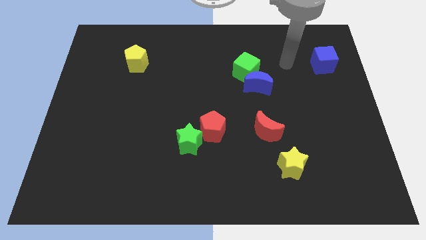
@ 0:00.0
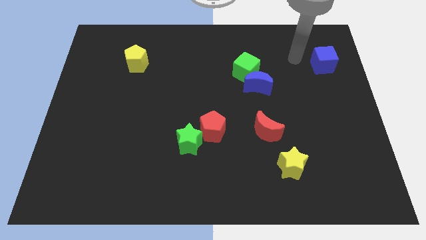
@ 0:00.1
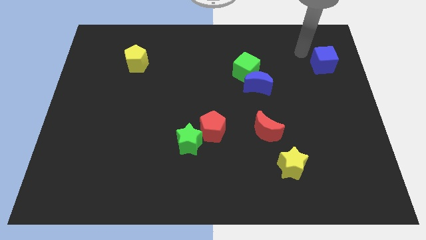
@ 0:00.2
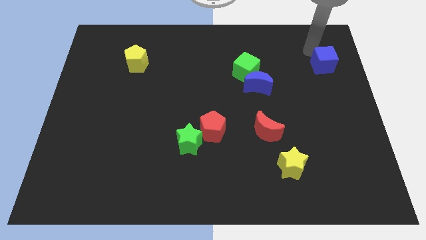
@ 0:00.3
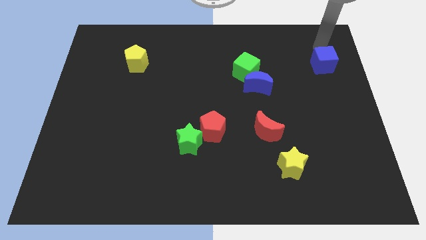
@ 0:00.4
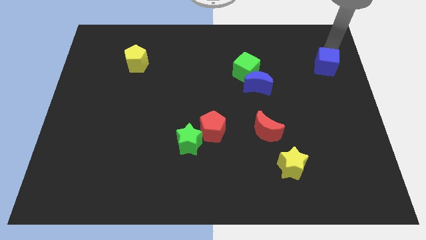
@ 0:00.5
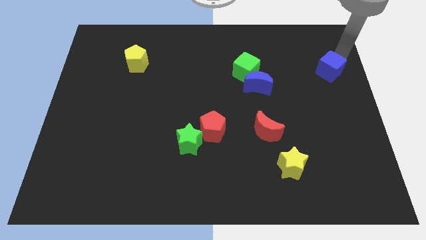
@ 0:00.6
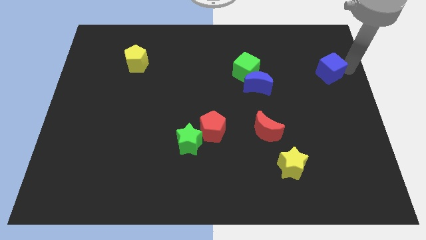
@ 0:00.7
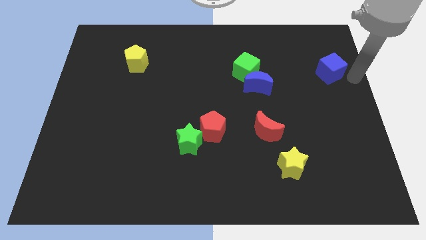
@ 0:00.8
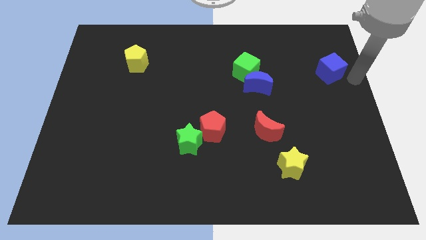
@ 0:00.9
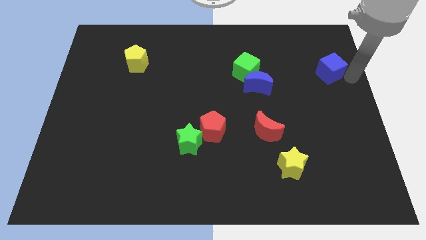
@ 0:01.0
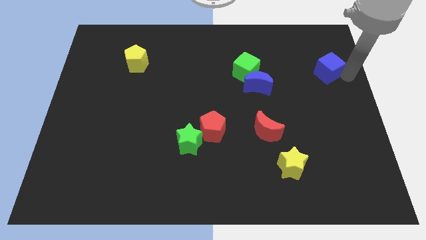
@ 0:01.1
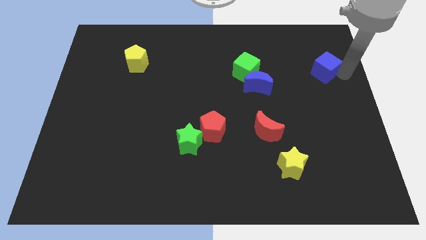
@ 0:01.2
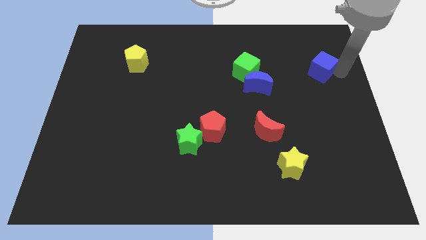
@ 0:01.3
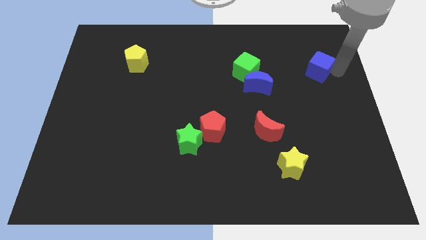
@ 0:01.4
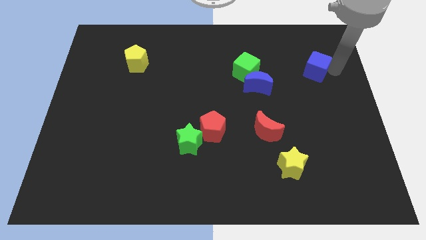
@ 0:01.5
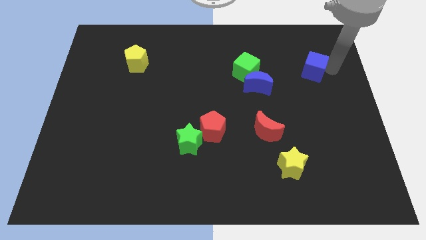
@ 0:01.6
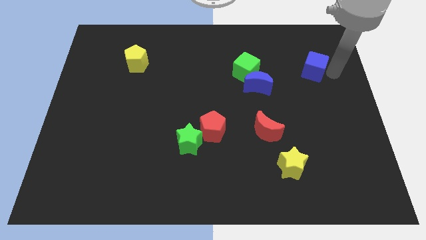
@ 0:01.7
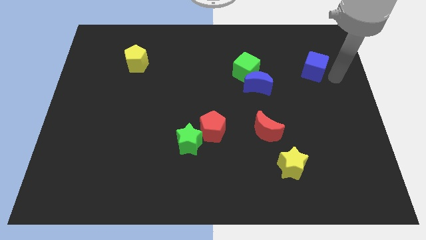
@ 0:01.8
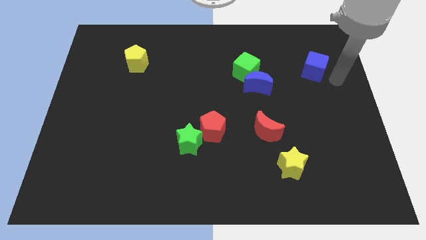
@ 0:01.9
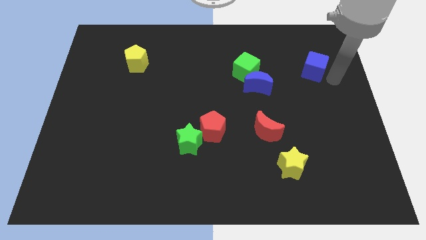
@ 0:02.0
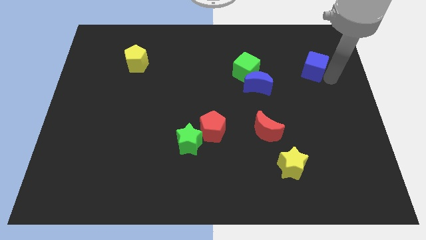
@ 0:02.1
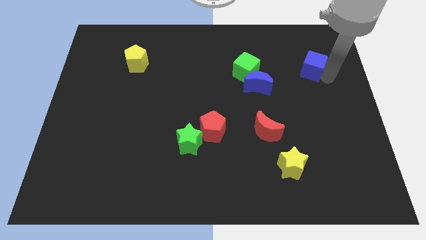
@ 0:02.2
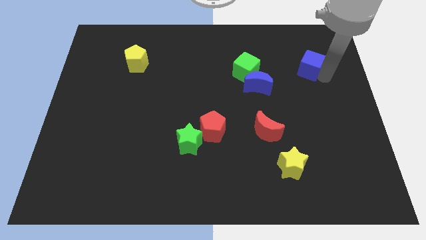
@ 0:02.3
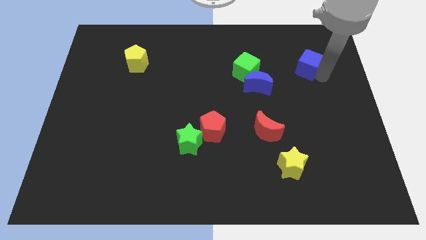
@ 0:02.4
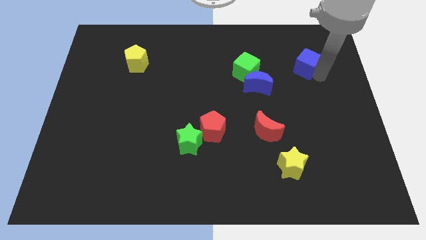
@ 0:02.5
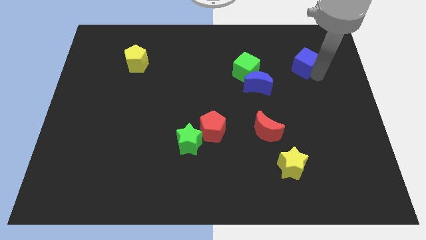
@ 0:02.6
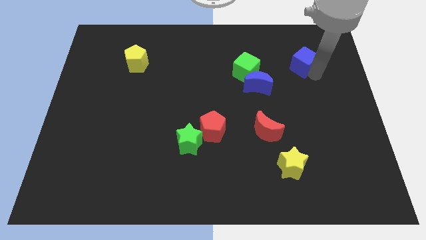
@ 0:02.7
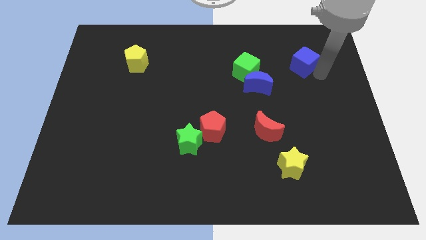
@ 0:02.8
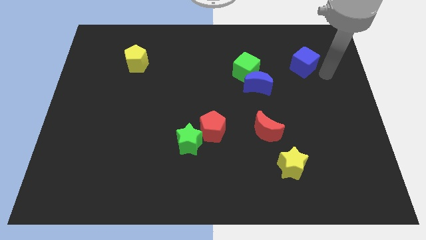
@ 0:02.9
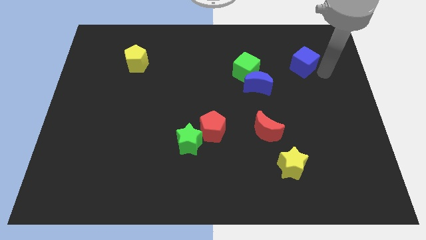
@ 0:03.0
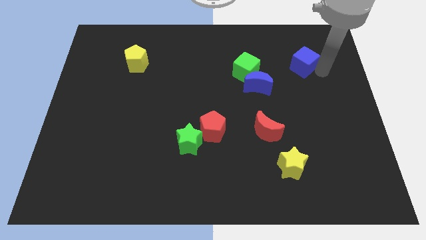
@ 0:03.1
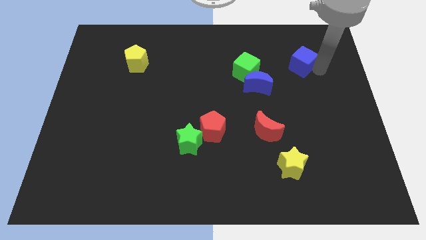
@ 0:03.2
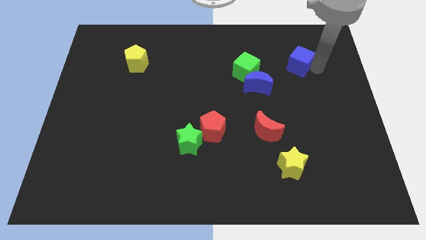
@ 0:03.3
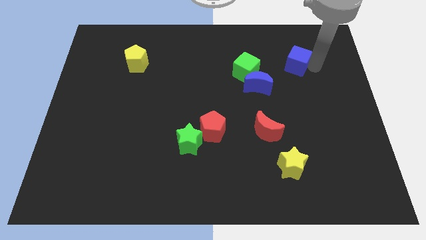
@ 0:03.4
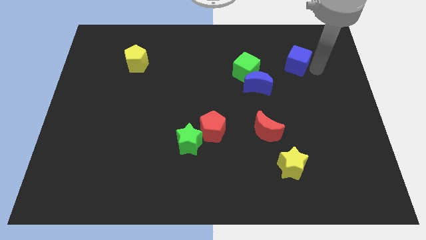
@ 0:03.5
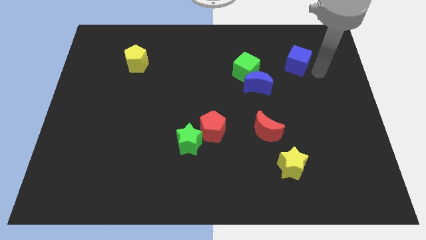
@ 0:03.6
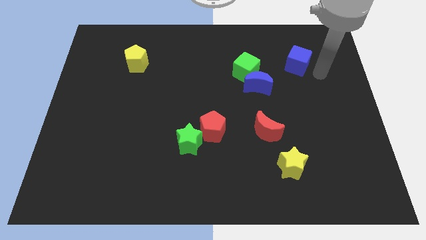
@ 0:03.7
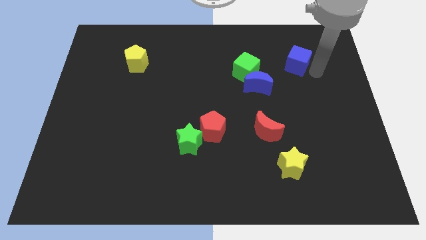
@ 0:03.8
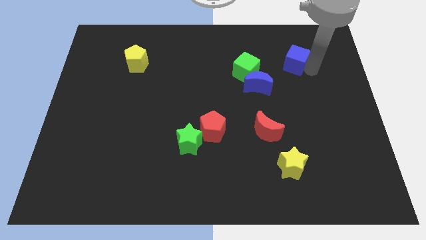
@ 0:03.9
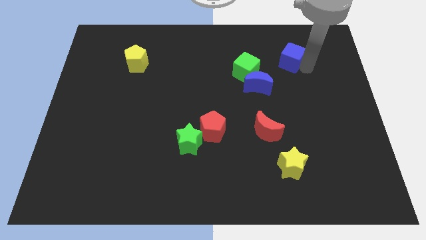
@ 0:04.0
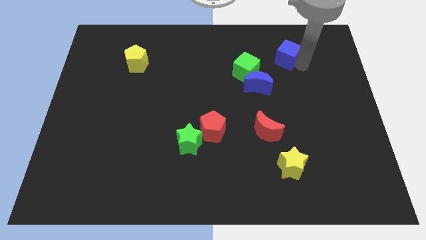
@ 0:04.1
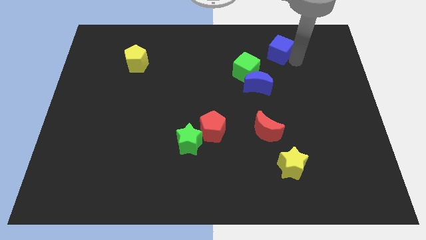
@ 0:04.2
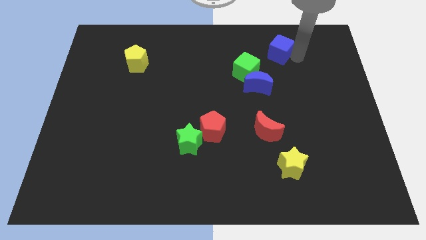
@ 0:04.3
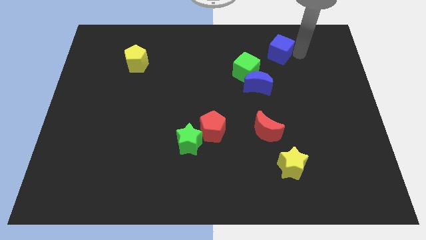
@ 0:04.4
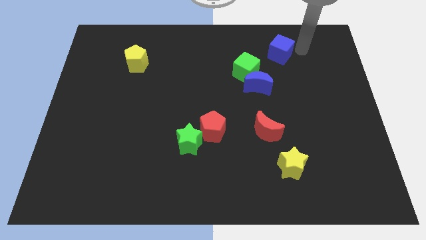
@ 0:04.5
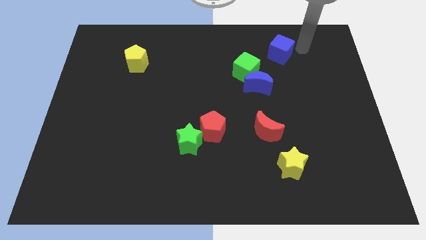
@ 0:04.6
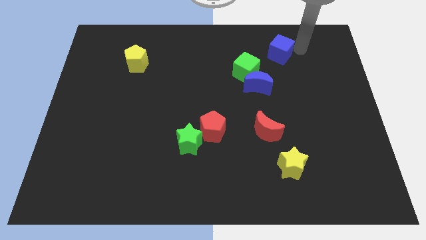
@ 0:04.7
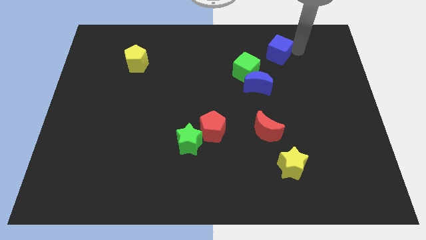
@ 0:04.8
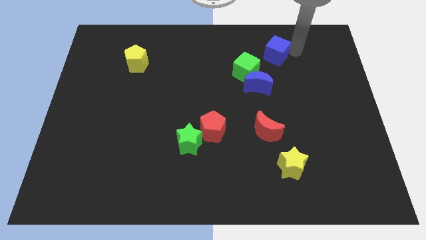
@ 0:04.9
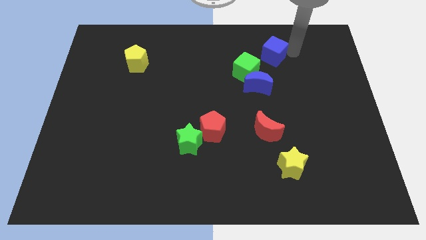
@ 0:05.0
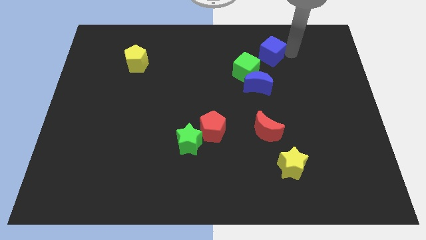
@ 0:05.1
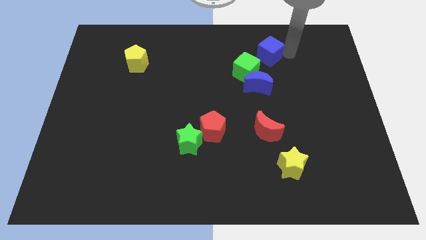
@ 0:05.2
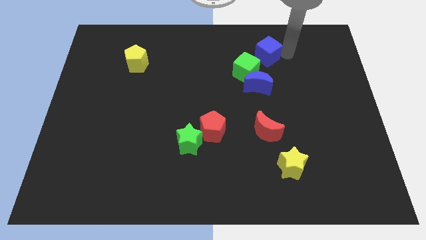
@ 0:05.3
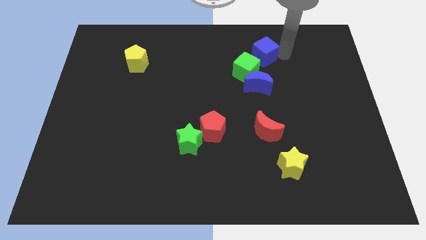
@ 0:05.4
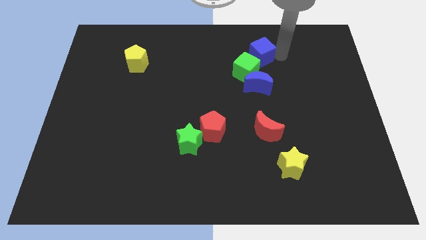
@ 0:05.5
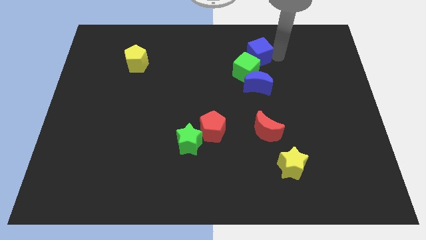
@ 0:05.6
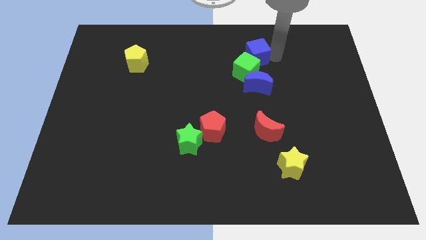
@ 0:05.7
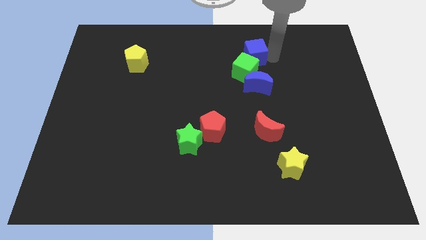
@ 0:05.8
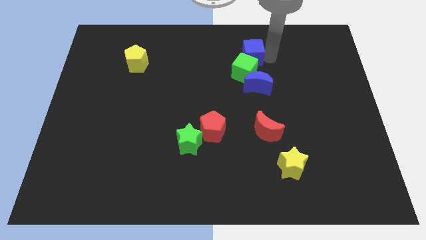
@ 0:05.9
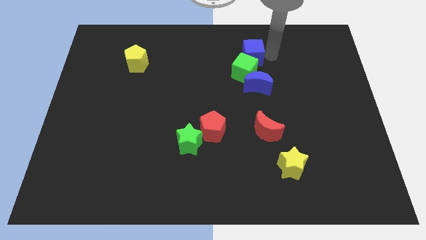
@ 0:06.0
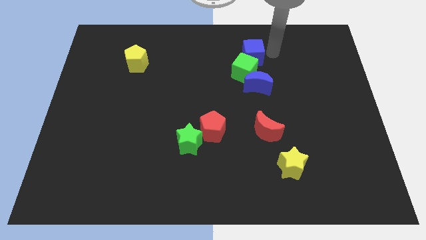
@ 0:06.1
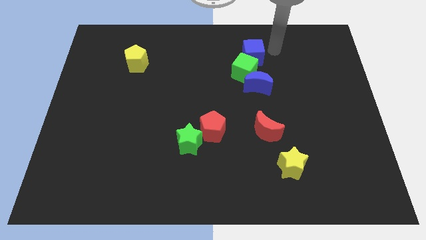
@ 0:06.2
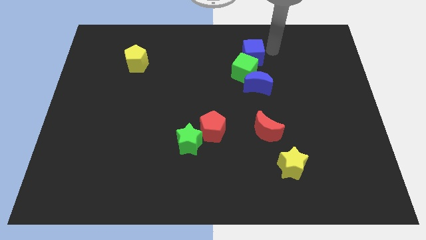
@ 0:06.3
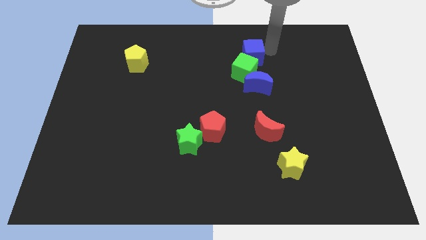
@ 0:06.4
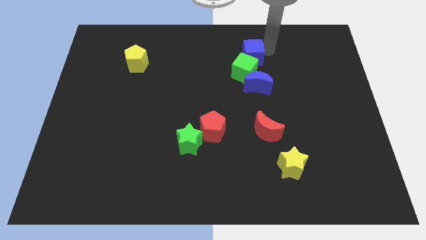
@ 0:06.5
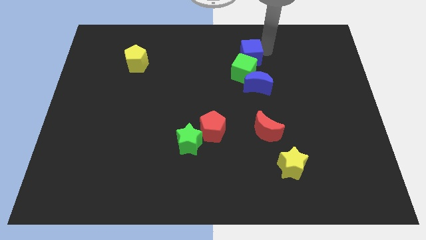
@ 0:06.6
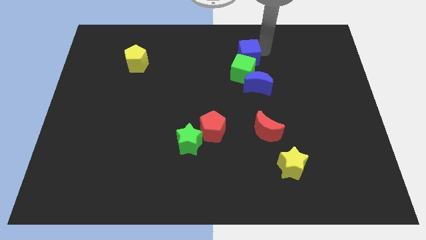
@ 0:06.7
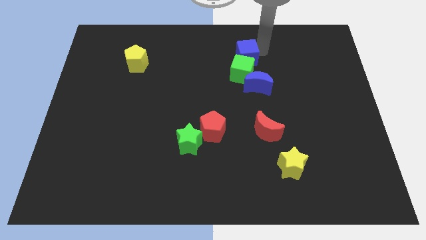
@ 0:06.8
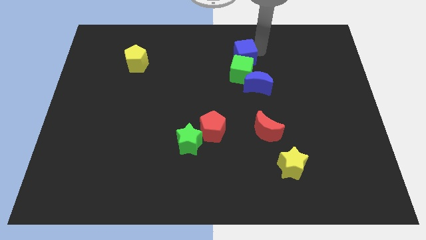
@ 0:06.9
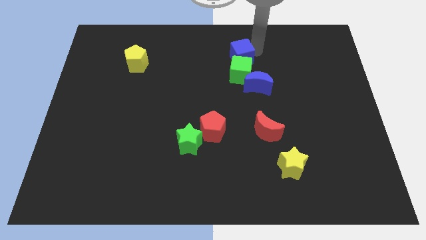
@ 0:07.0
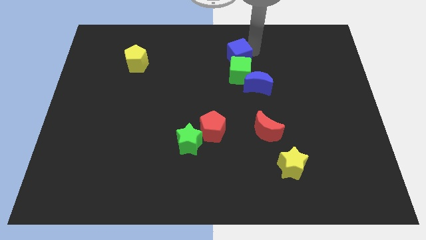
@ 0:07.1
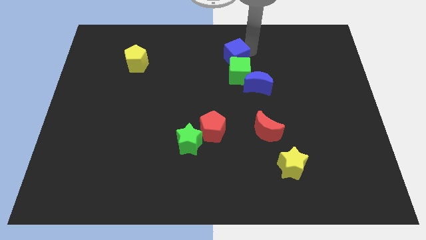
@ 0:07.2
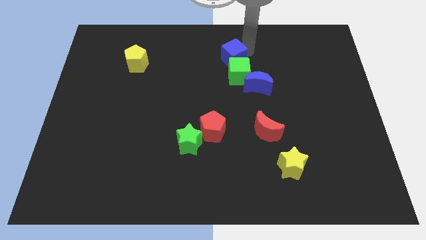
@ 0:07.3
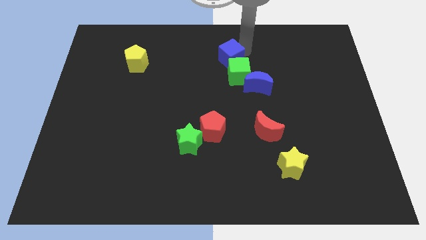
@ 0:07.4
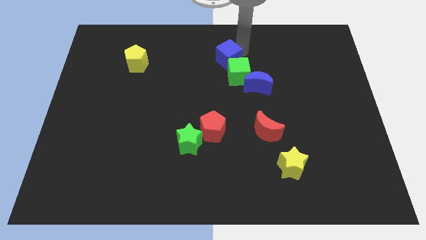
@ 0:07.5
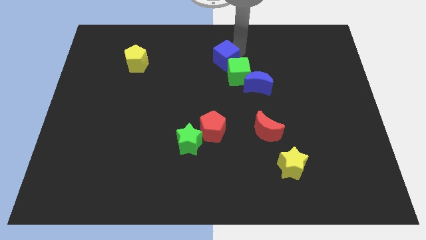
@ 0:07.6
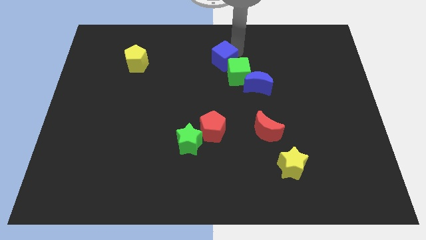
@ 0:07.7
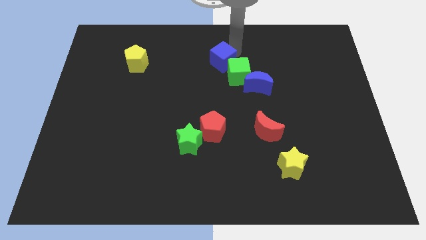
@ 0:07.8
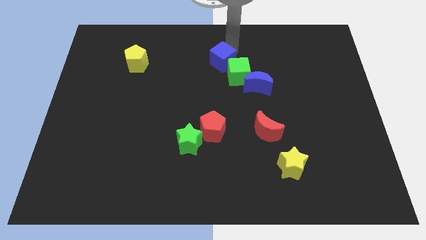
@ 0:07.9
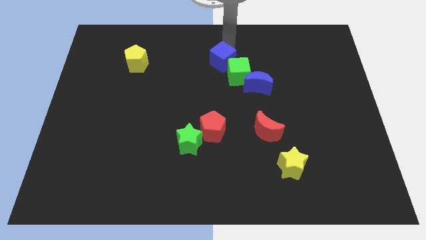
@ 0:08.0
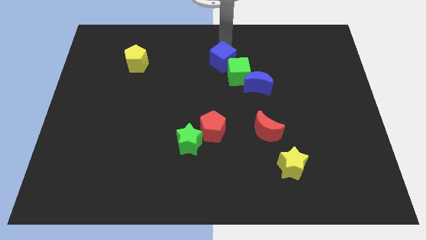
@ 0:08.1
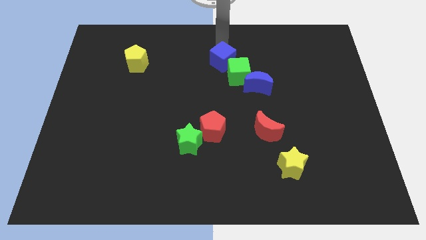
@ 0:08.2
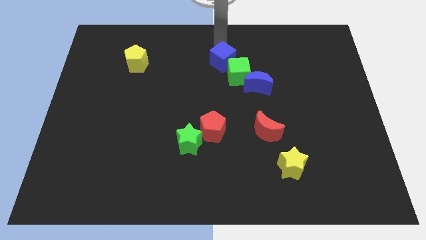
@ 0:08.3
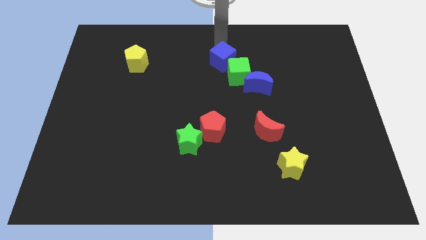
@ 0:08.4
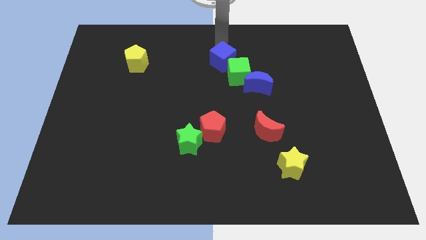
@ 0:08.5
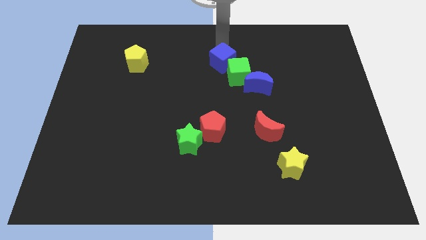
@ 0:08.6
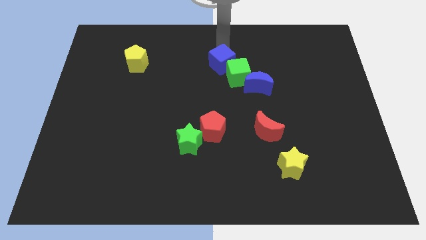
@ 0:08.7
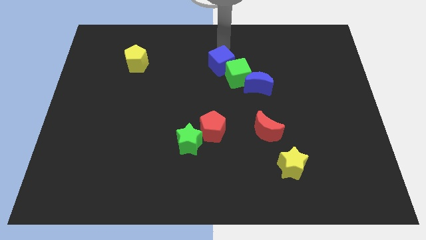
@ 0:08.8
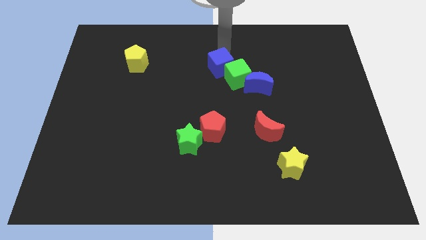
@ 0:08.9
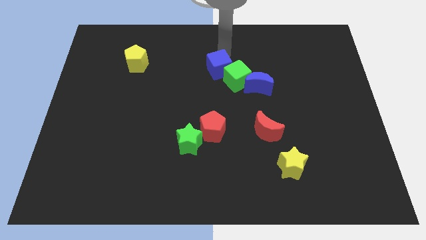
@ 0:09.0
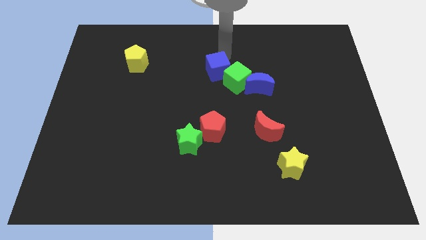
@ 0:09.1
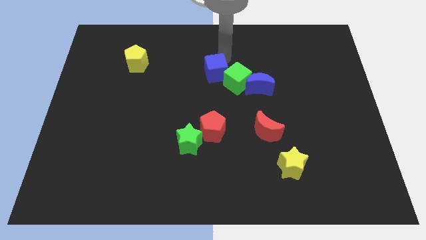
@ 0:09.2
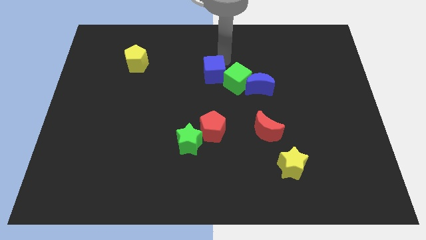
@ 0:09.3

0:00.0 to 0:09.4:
push the blue cube to the left side of the blue moon
